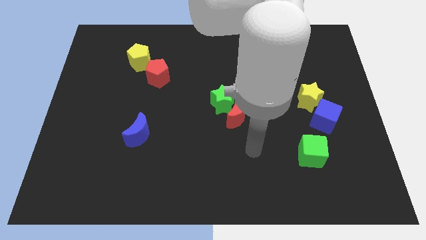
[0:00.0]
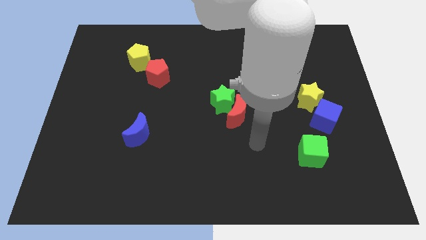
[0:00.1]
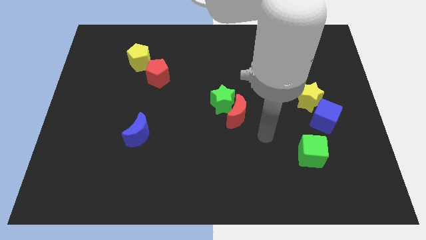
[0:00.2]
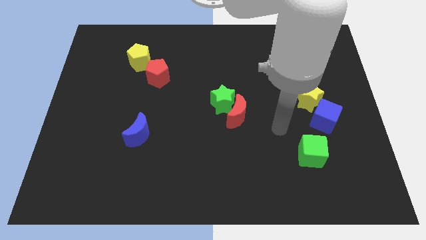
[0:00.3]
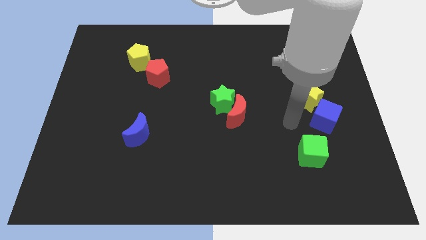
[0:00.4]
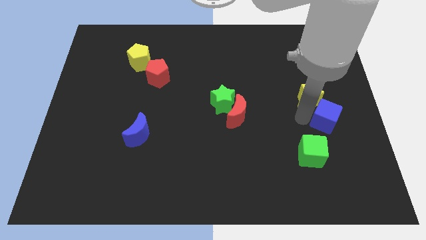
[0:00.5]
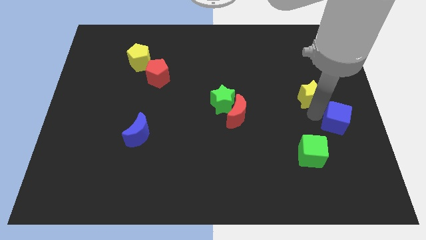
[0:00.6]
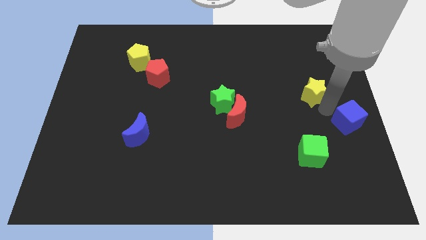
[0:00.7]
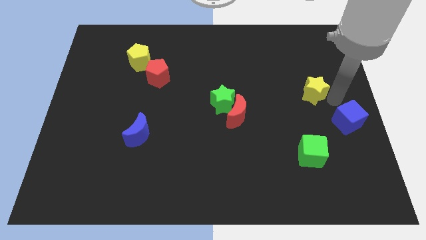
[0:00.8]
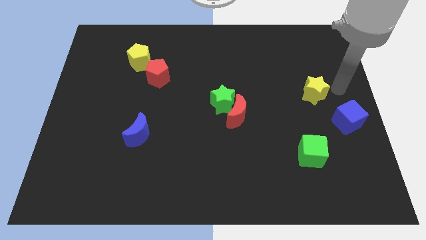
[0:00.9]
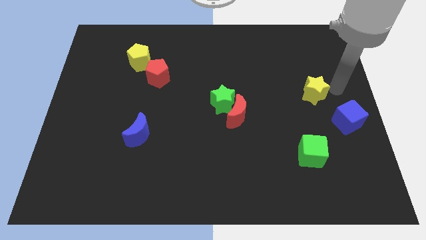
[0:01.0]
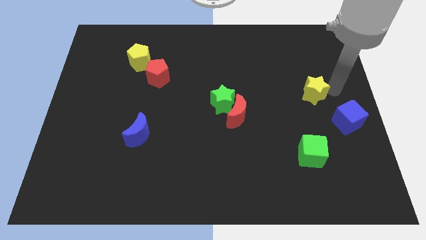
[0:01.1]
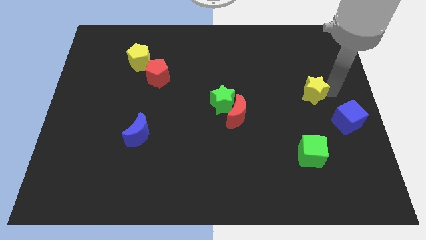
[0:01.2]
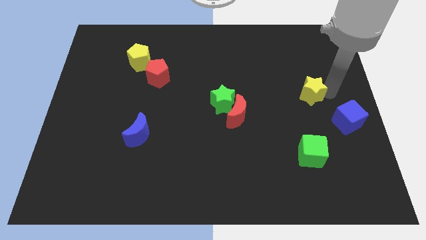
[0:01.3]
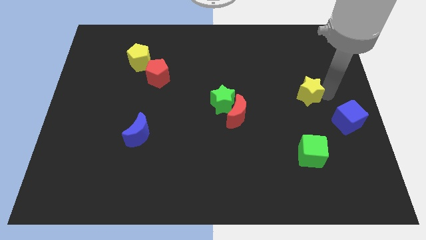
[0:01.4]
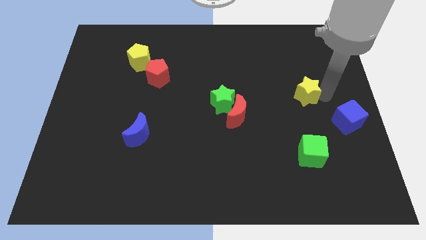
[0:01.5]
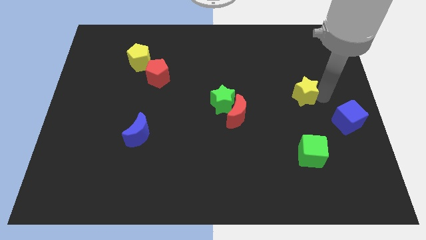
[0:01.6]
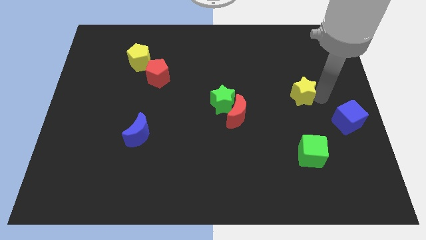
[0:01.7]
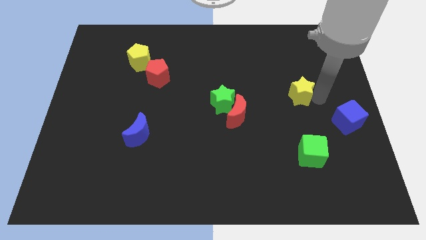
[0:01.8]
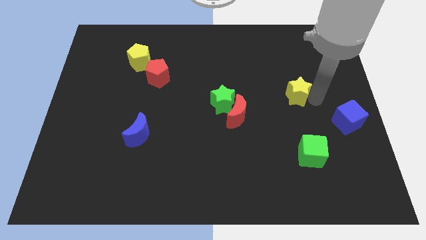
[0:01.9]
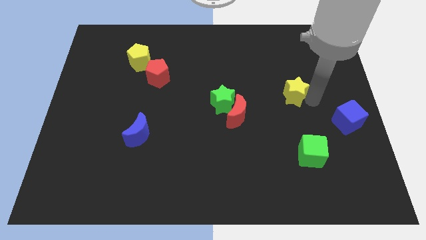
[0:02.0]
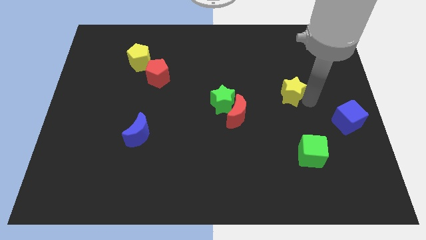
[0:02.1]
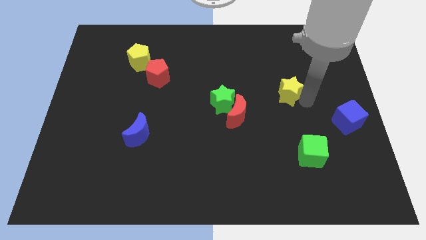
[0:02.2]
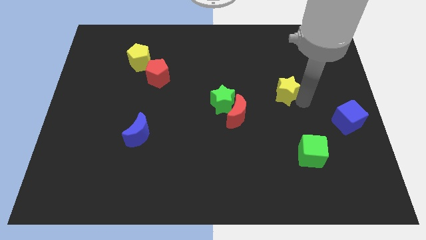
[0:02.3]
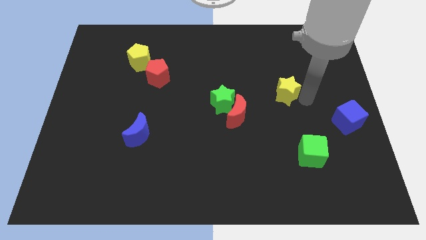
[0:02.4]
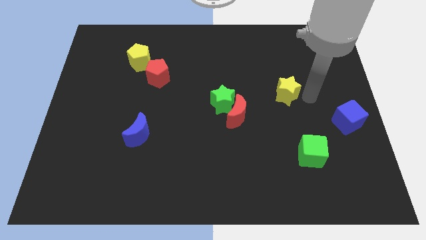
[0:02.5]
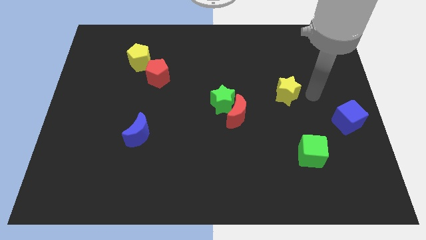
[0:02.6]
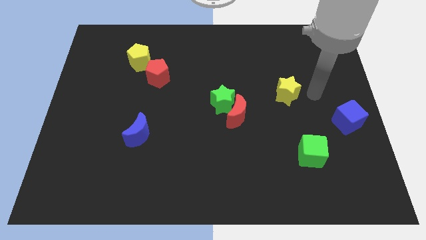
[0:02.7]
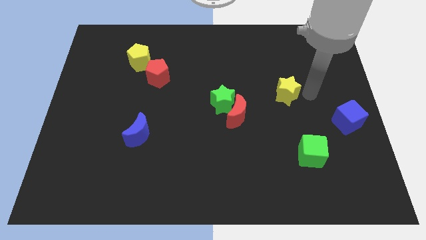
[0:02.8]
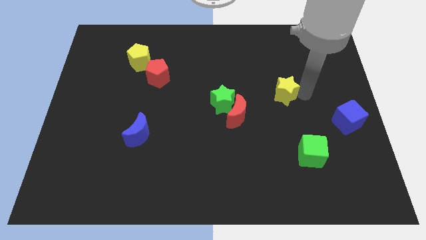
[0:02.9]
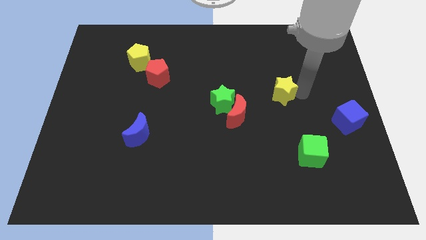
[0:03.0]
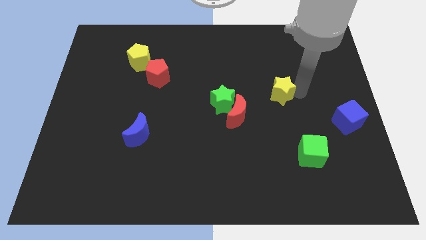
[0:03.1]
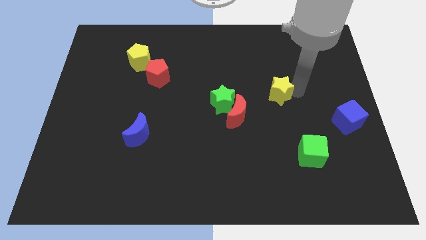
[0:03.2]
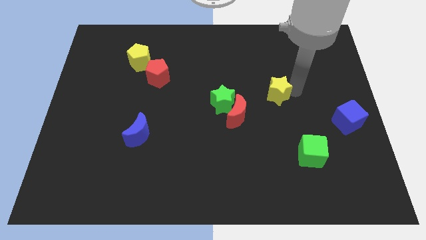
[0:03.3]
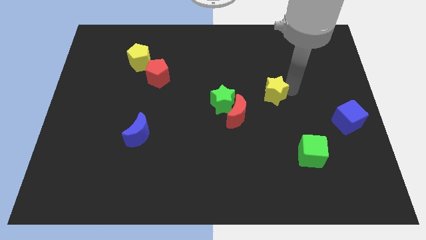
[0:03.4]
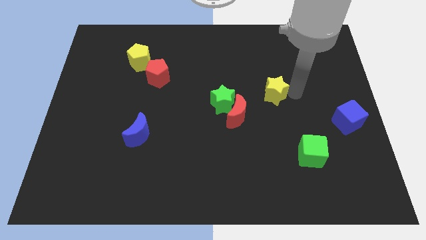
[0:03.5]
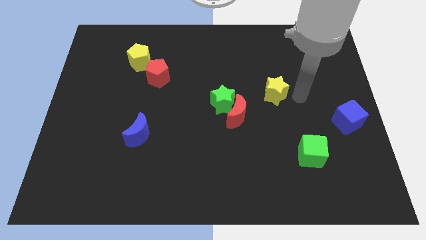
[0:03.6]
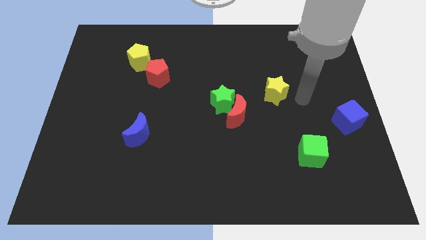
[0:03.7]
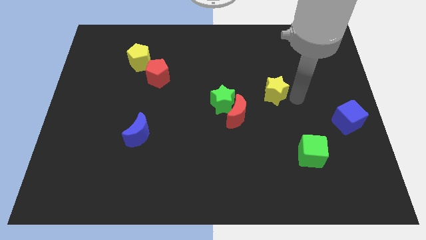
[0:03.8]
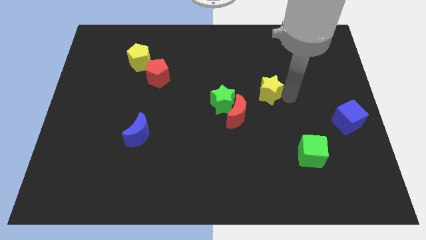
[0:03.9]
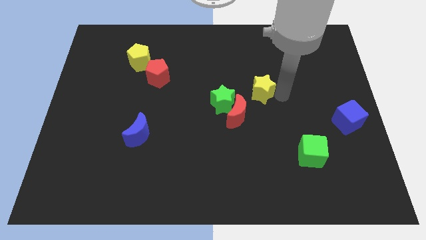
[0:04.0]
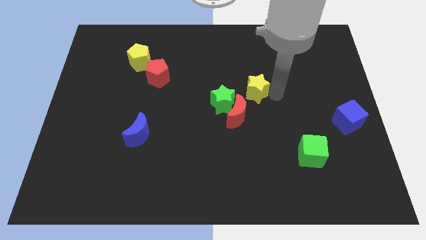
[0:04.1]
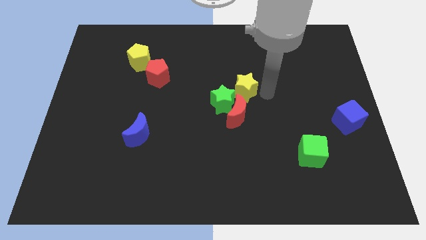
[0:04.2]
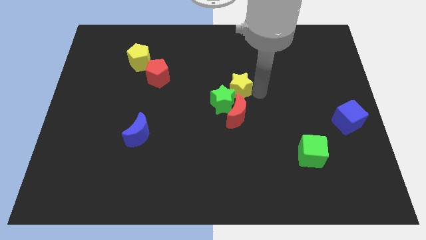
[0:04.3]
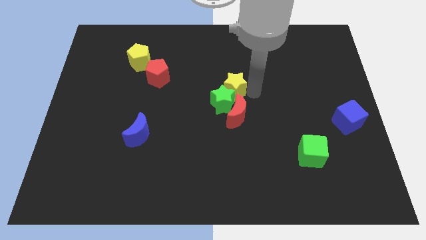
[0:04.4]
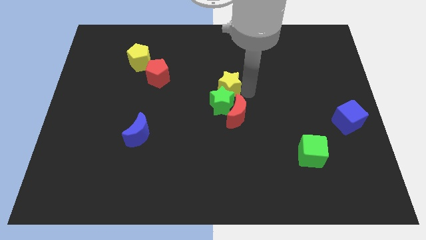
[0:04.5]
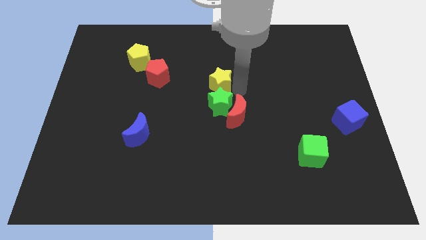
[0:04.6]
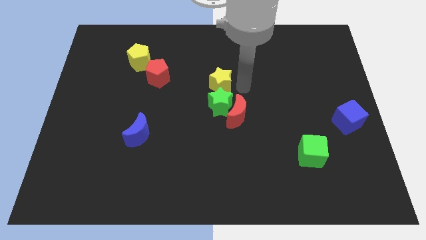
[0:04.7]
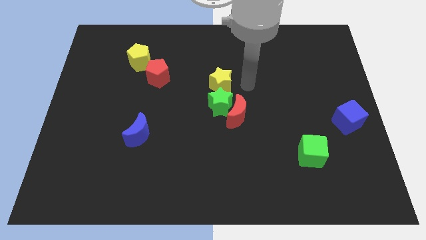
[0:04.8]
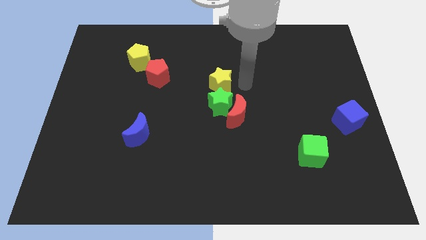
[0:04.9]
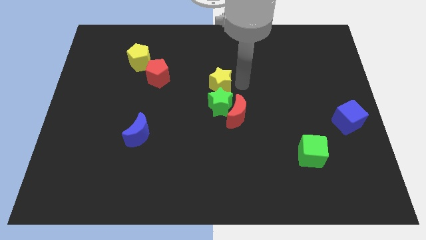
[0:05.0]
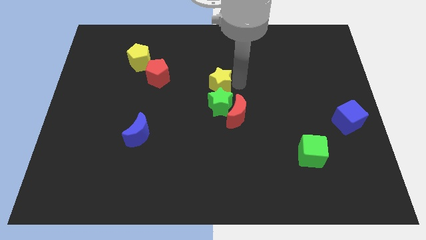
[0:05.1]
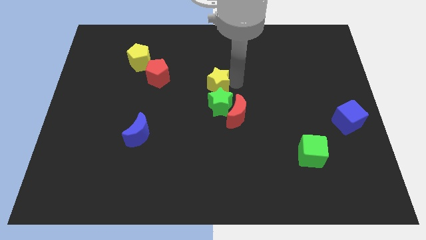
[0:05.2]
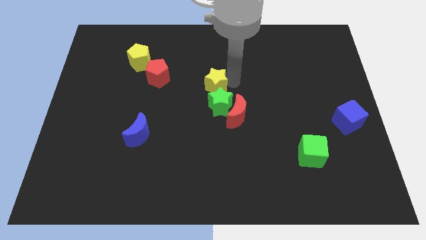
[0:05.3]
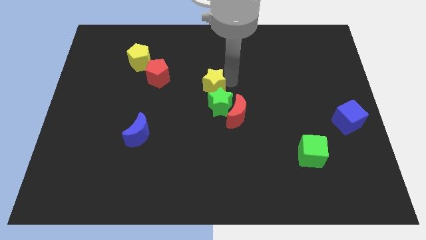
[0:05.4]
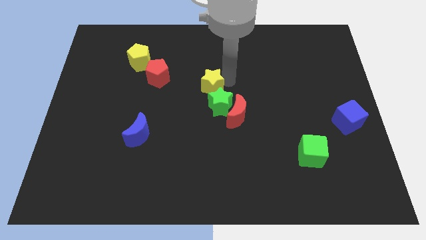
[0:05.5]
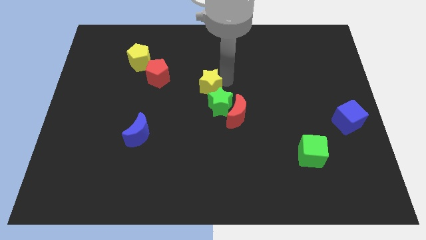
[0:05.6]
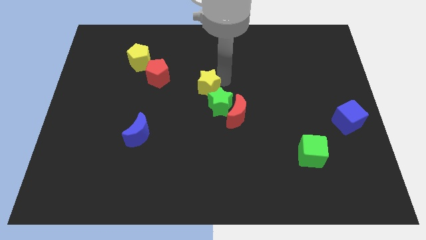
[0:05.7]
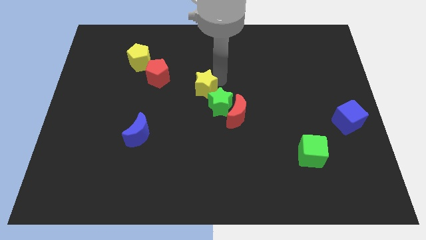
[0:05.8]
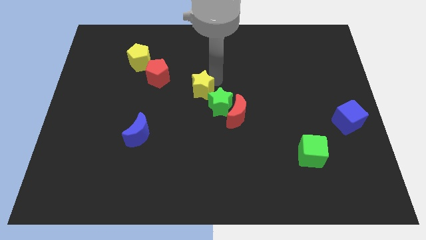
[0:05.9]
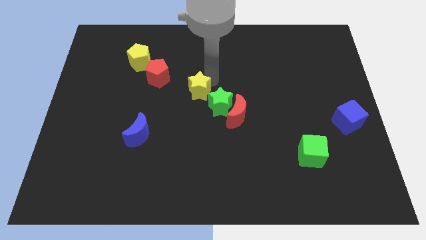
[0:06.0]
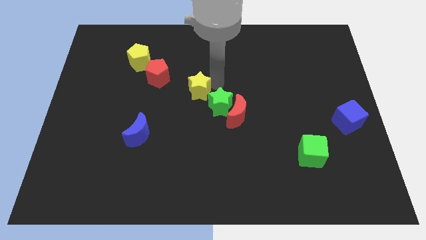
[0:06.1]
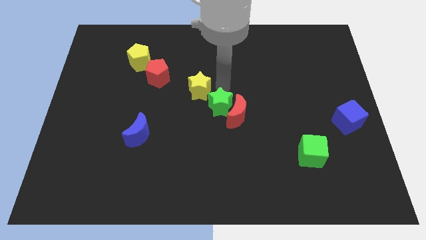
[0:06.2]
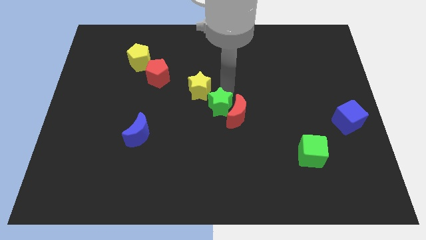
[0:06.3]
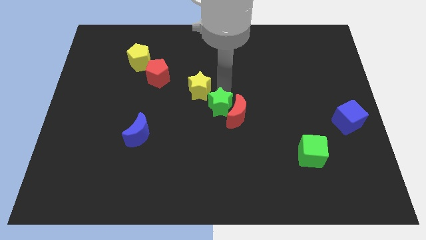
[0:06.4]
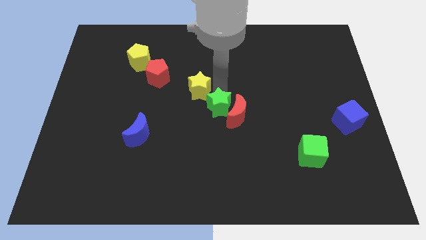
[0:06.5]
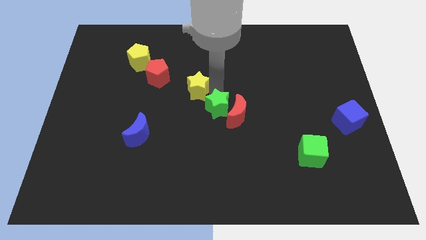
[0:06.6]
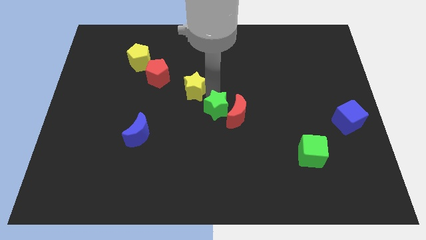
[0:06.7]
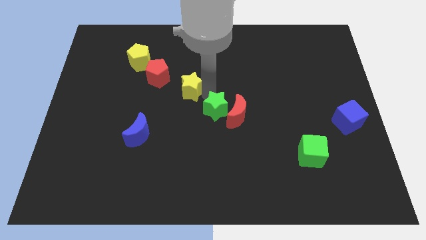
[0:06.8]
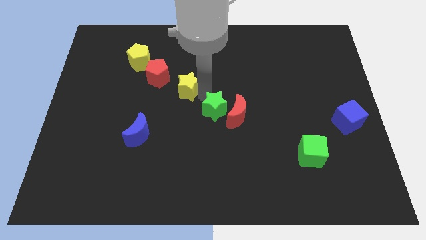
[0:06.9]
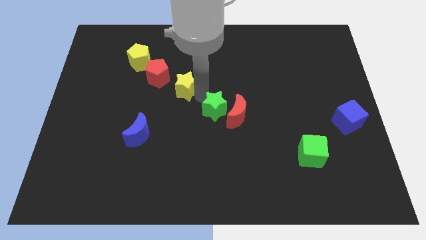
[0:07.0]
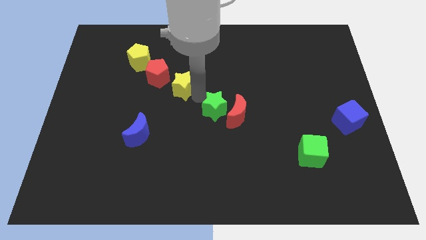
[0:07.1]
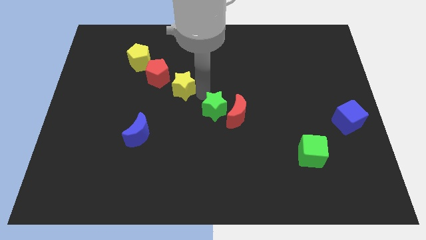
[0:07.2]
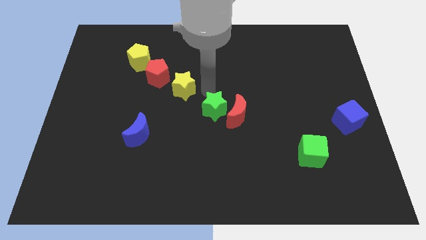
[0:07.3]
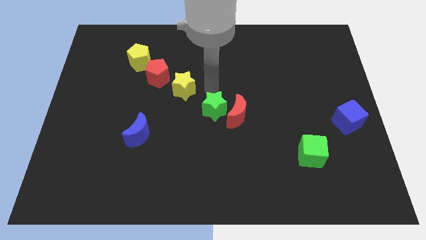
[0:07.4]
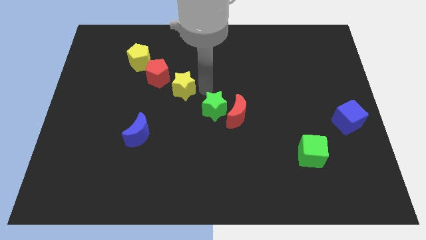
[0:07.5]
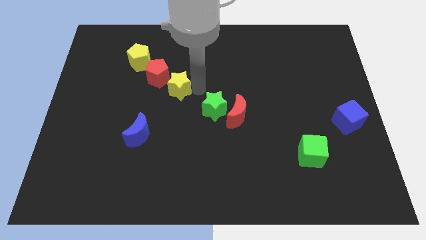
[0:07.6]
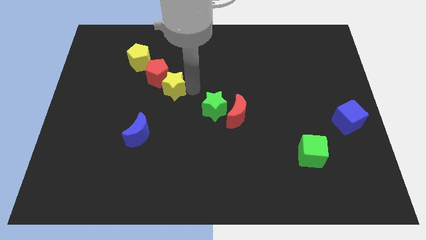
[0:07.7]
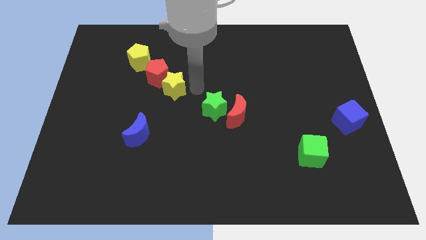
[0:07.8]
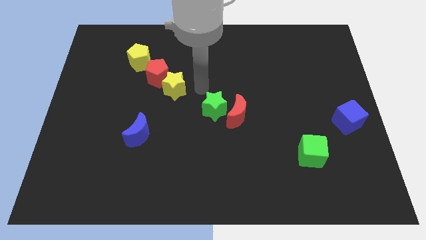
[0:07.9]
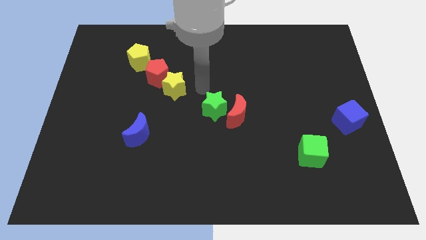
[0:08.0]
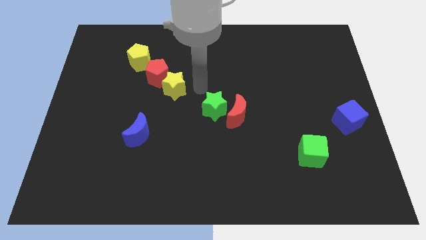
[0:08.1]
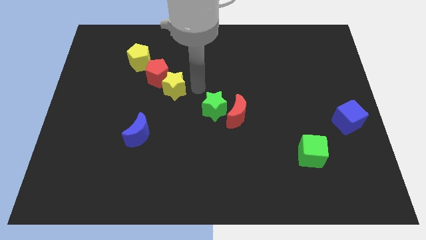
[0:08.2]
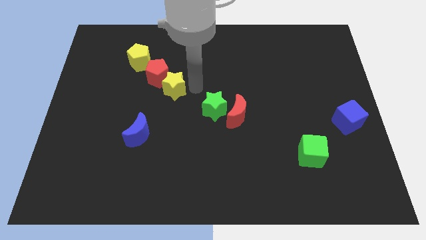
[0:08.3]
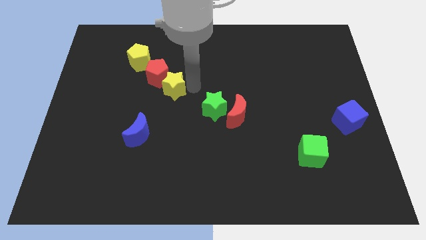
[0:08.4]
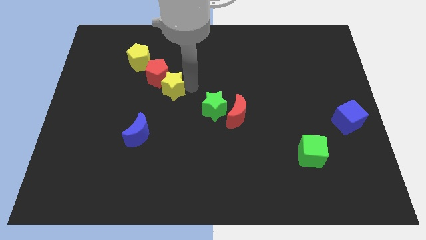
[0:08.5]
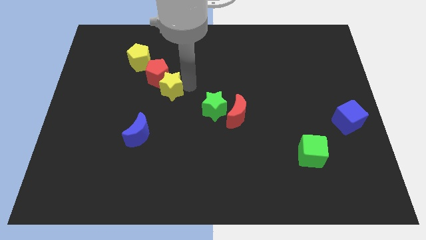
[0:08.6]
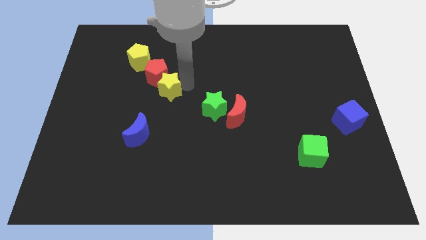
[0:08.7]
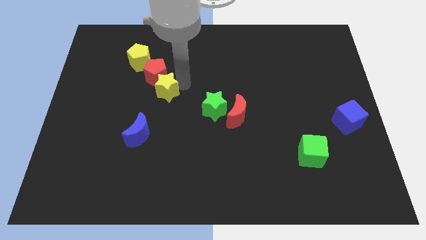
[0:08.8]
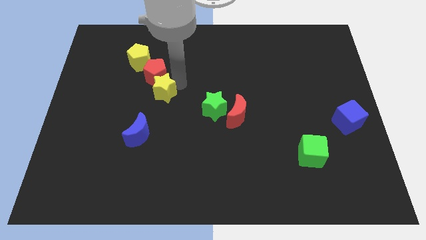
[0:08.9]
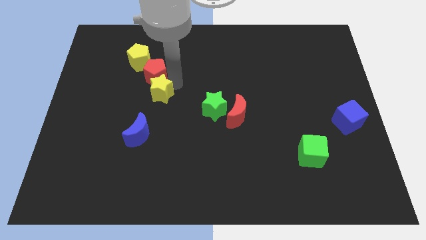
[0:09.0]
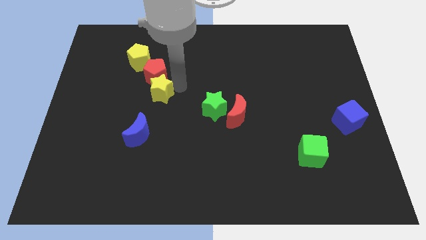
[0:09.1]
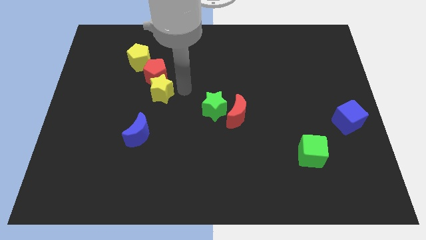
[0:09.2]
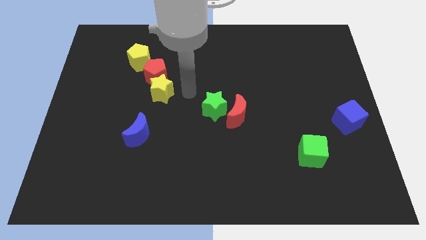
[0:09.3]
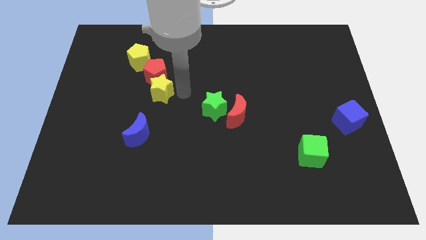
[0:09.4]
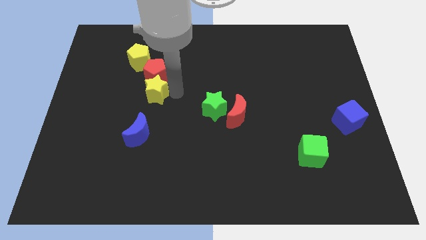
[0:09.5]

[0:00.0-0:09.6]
push the yellow star diagonally down and to the left of the red pentagon
